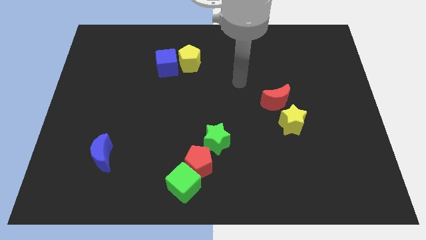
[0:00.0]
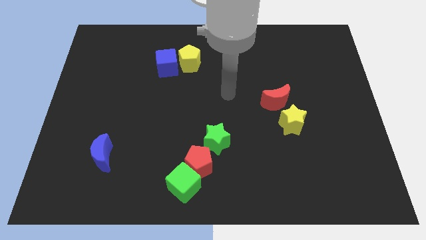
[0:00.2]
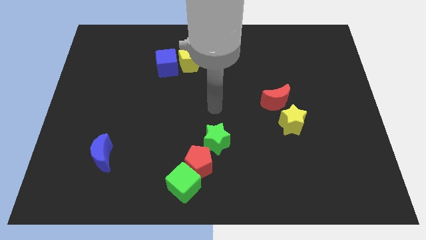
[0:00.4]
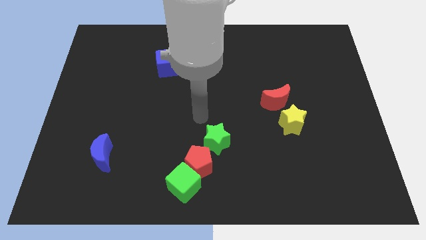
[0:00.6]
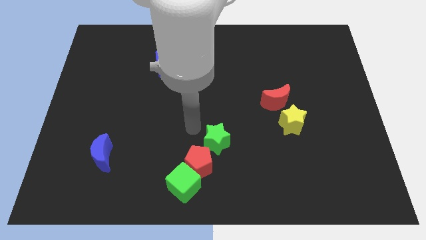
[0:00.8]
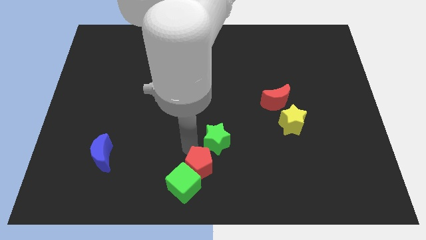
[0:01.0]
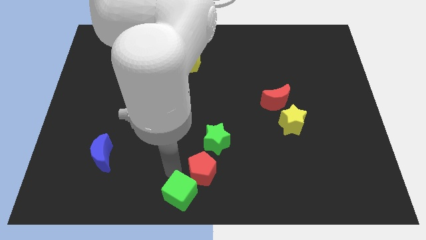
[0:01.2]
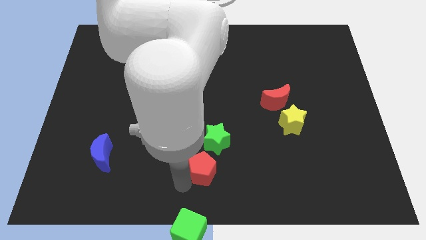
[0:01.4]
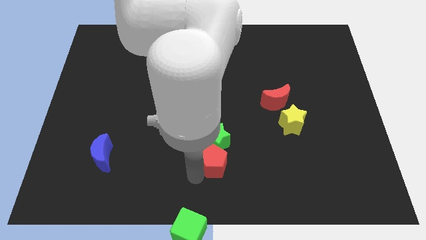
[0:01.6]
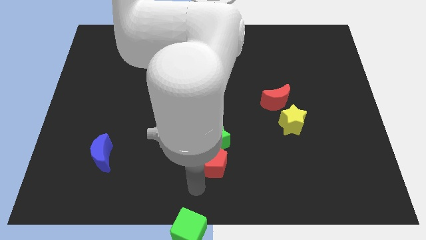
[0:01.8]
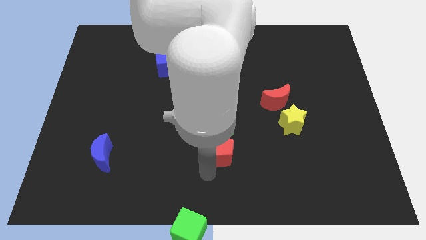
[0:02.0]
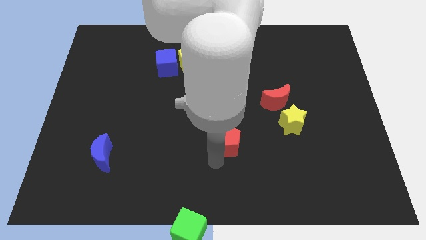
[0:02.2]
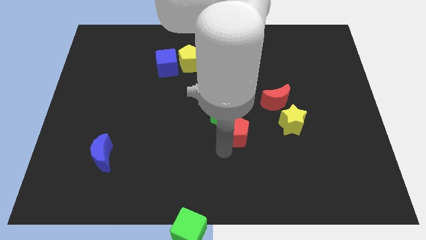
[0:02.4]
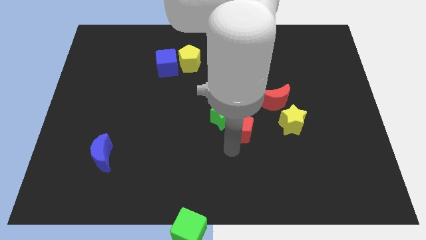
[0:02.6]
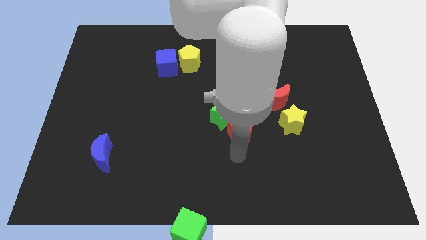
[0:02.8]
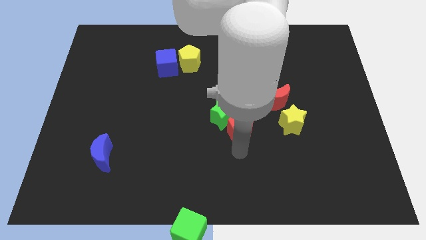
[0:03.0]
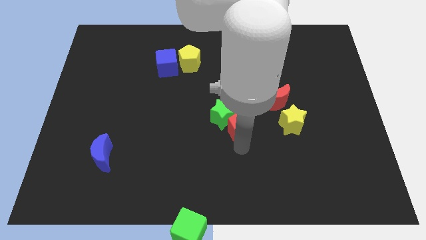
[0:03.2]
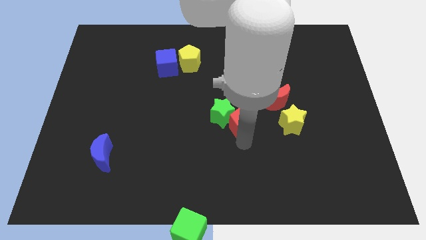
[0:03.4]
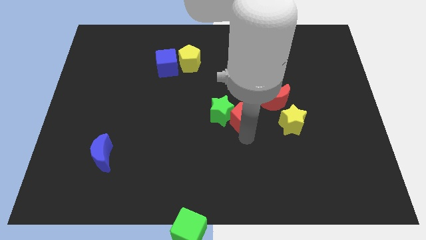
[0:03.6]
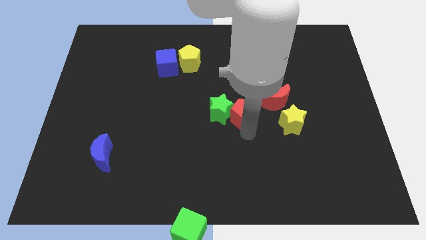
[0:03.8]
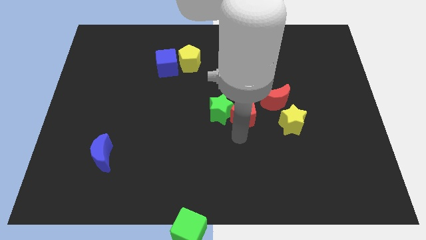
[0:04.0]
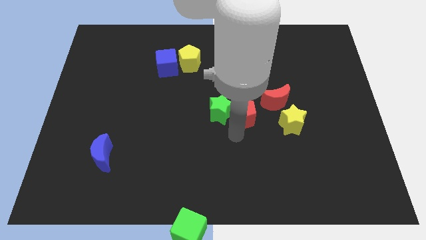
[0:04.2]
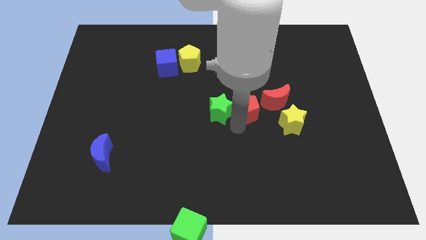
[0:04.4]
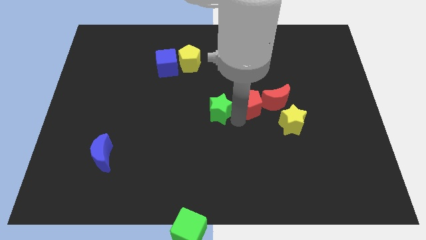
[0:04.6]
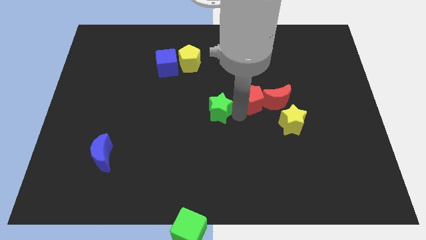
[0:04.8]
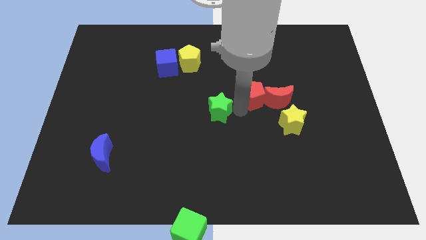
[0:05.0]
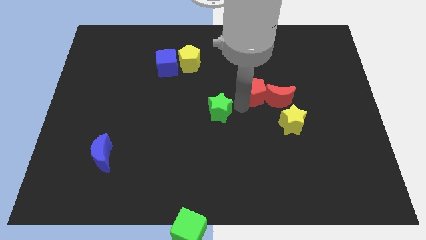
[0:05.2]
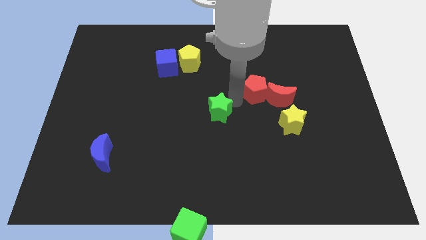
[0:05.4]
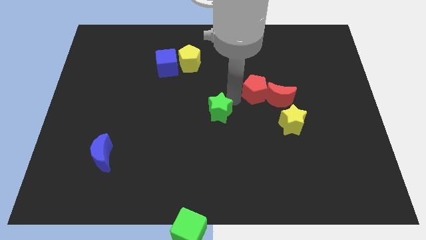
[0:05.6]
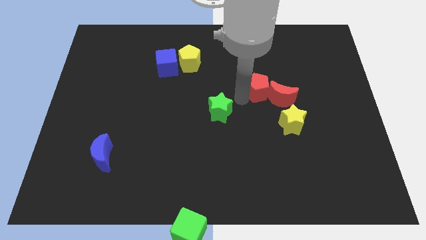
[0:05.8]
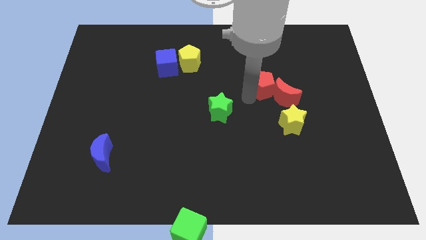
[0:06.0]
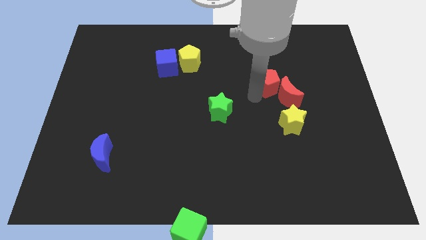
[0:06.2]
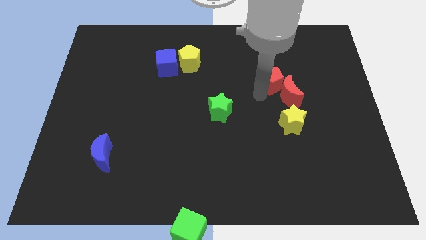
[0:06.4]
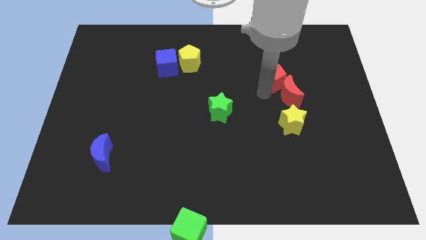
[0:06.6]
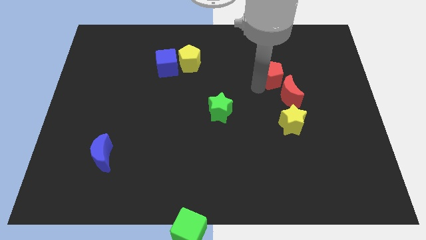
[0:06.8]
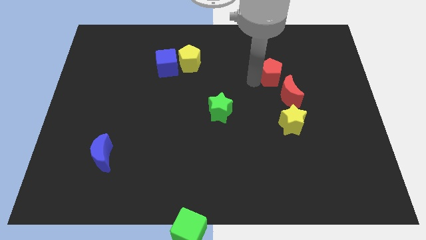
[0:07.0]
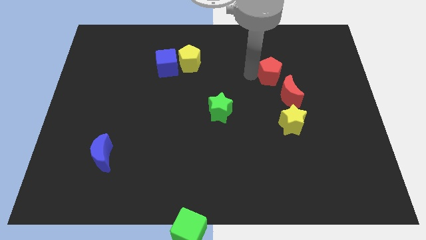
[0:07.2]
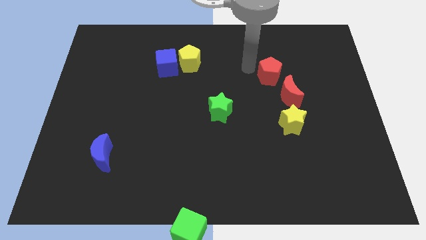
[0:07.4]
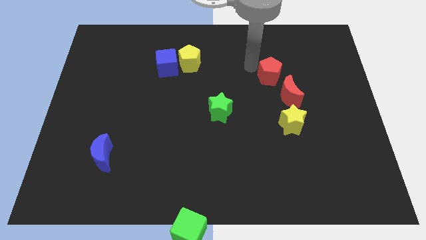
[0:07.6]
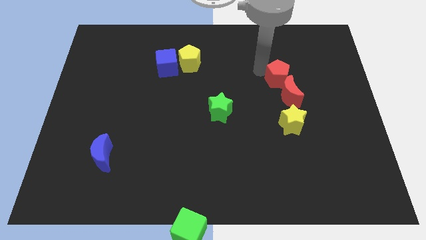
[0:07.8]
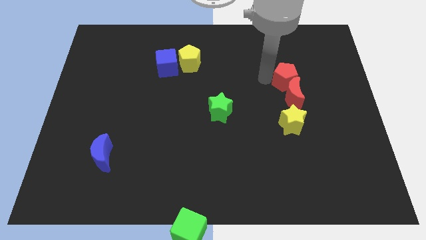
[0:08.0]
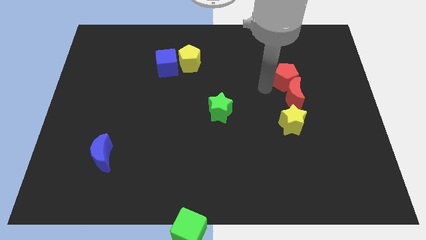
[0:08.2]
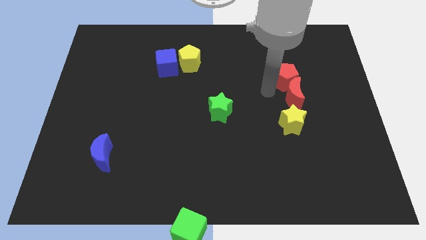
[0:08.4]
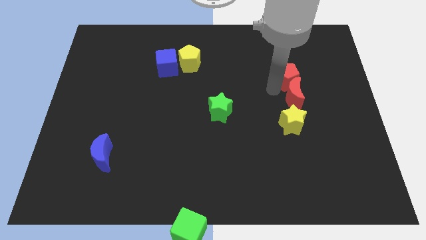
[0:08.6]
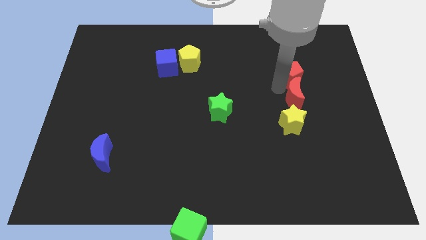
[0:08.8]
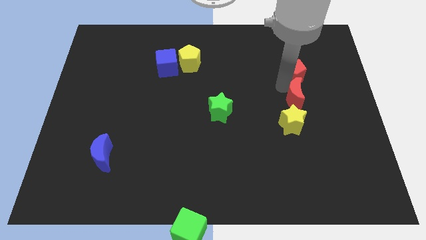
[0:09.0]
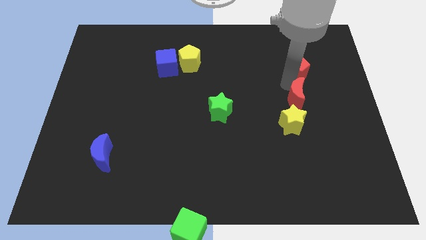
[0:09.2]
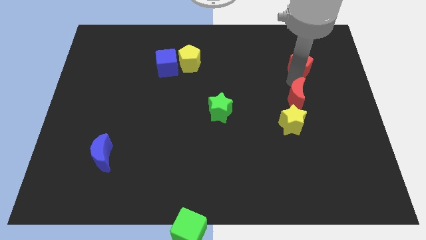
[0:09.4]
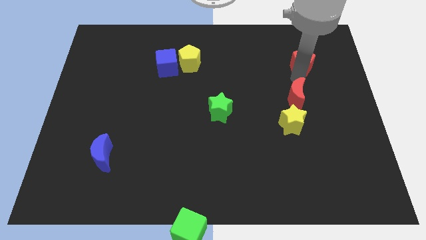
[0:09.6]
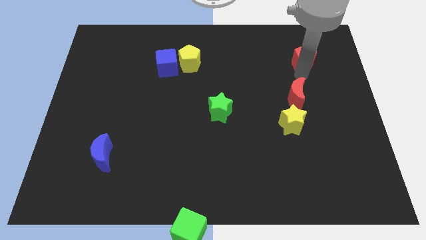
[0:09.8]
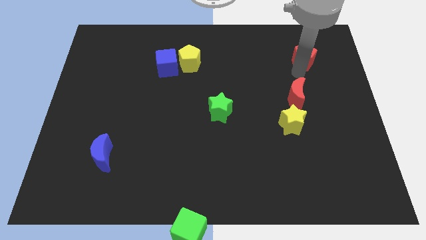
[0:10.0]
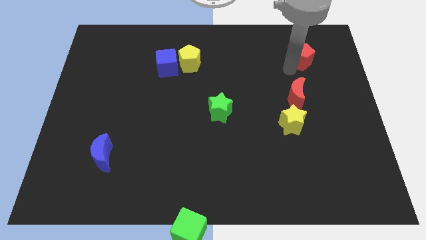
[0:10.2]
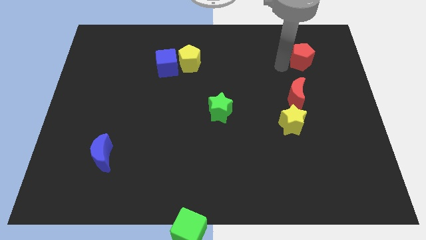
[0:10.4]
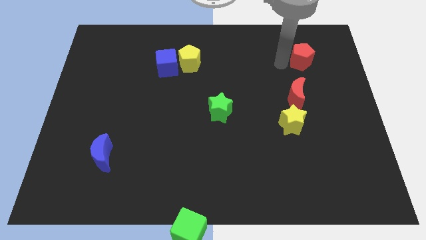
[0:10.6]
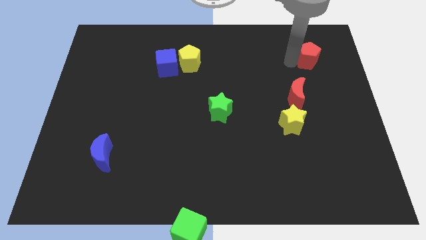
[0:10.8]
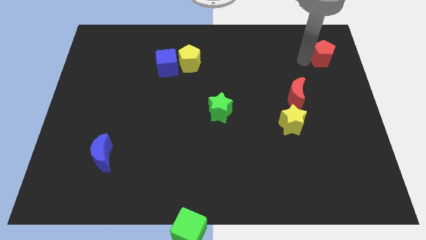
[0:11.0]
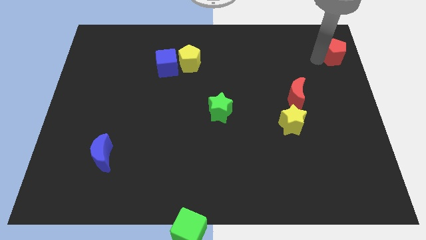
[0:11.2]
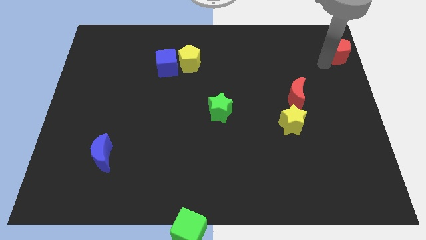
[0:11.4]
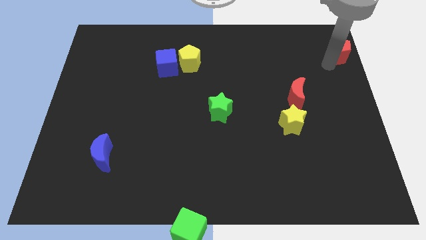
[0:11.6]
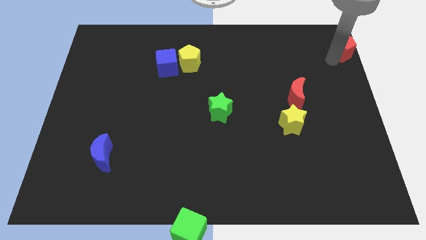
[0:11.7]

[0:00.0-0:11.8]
push the red pentagon to the top right of the board
